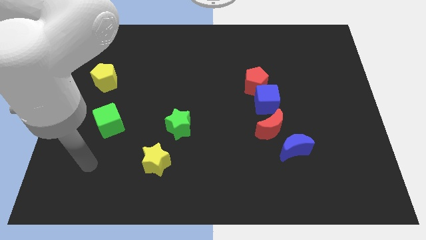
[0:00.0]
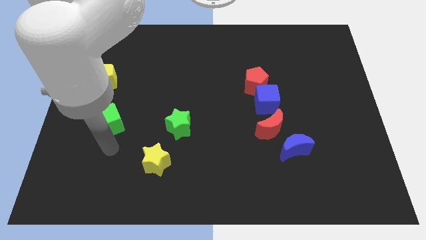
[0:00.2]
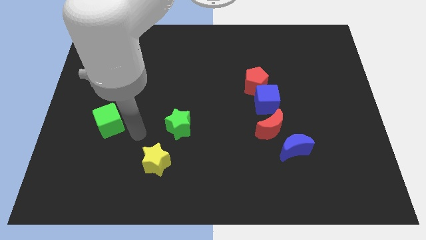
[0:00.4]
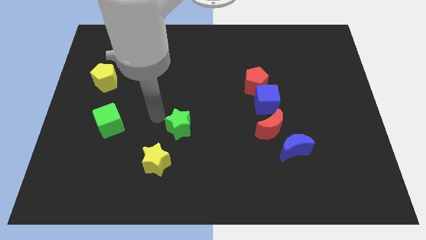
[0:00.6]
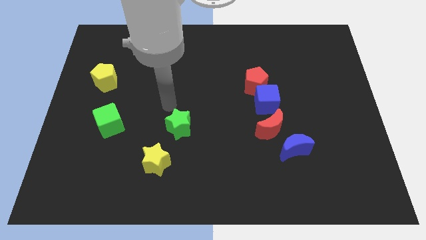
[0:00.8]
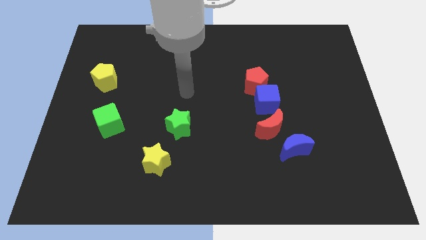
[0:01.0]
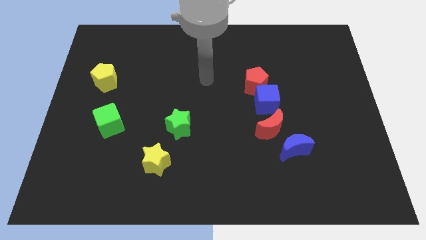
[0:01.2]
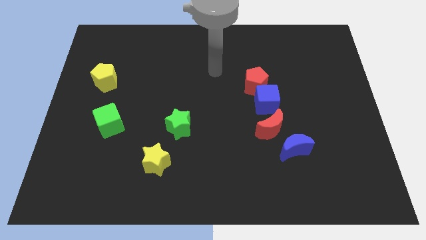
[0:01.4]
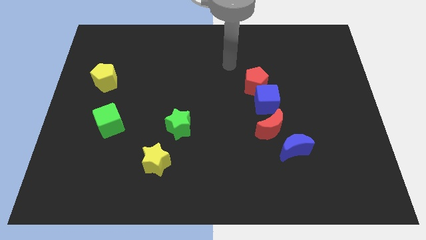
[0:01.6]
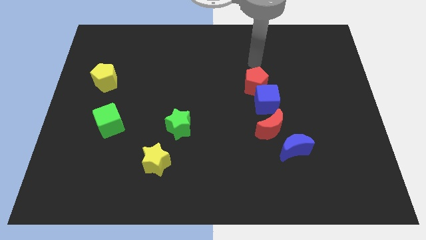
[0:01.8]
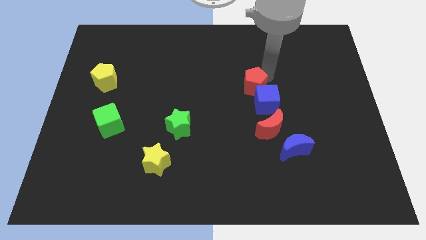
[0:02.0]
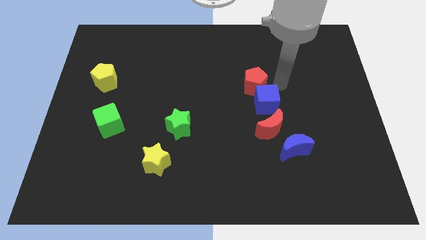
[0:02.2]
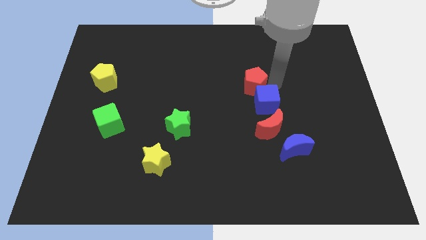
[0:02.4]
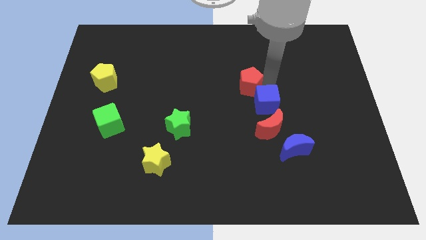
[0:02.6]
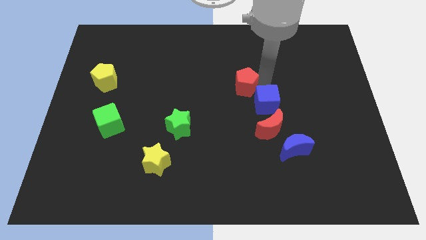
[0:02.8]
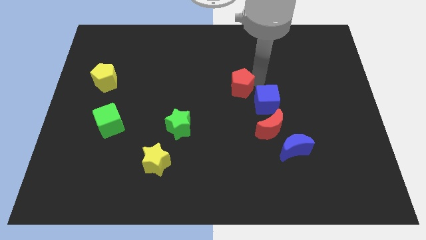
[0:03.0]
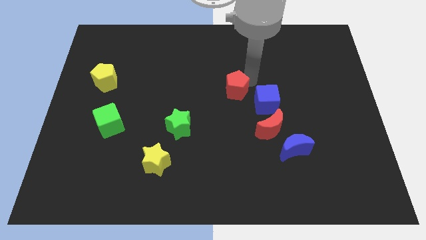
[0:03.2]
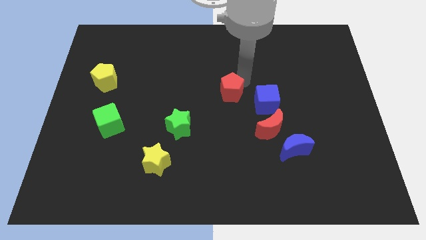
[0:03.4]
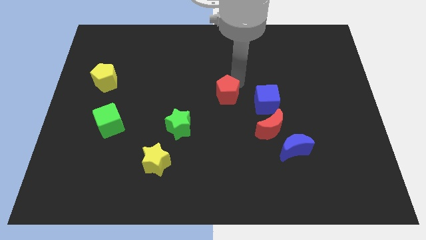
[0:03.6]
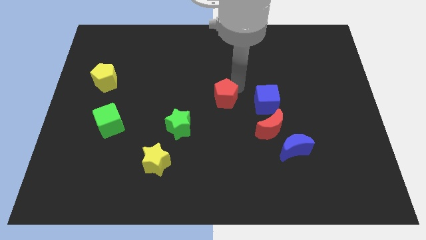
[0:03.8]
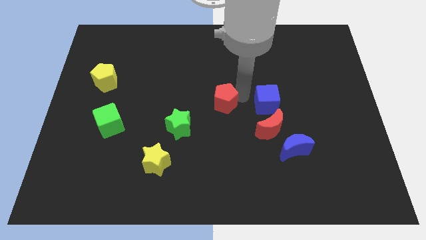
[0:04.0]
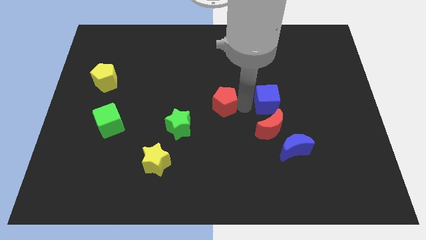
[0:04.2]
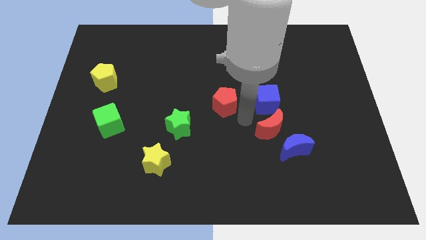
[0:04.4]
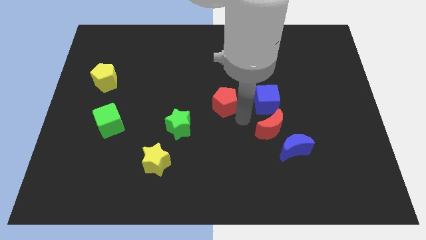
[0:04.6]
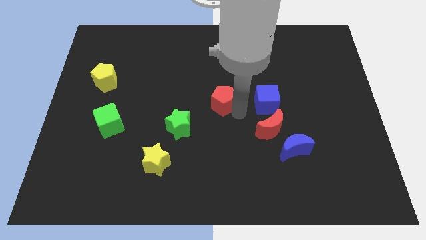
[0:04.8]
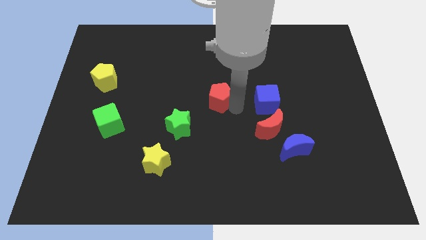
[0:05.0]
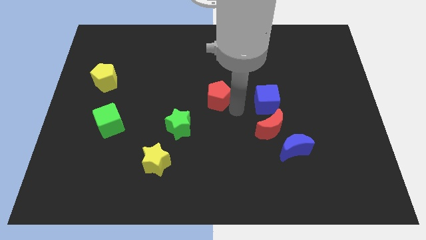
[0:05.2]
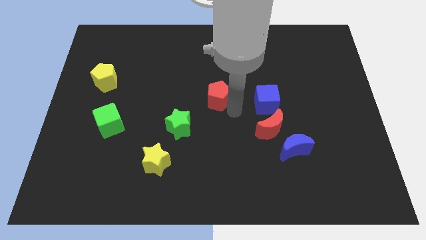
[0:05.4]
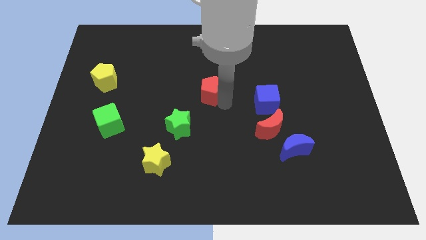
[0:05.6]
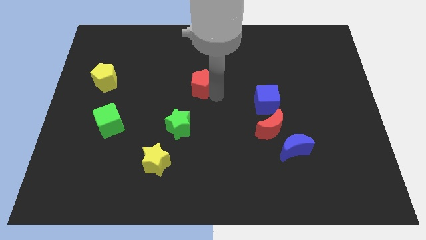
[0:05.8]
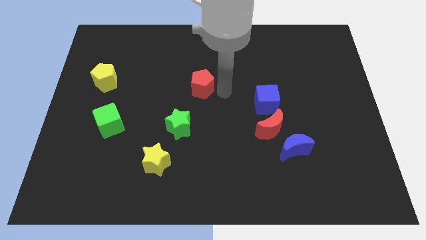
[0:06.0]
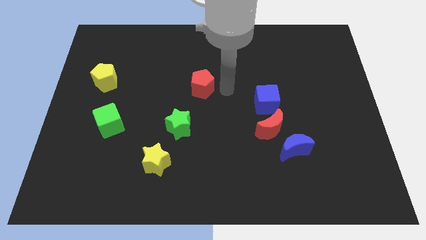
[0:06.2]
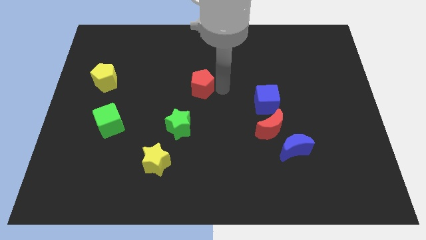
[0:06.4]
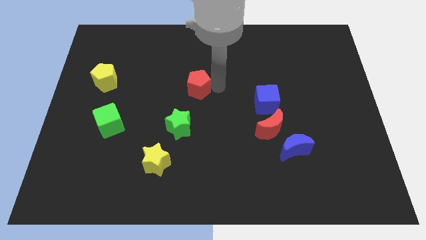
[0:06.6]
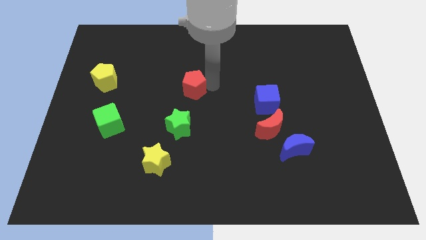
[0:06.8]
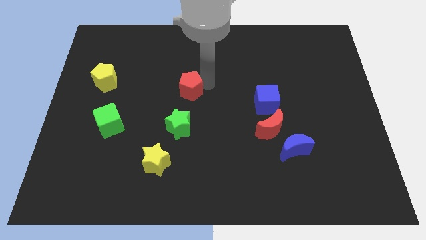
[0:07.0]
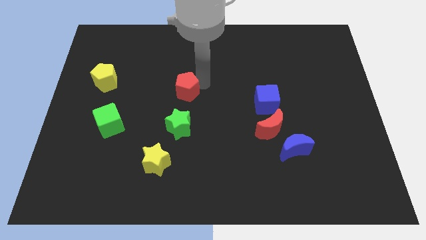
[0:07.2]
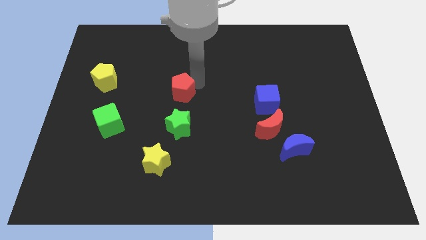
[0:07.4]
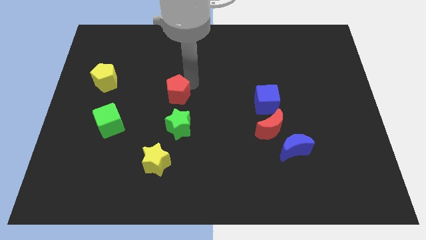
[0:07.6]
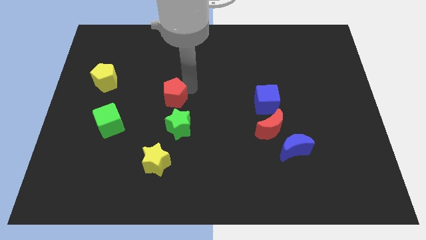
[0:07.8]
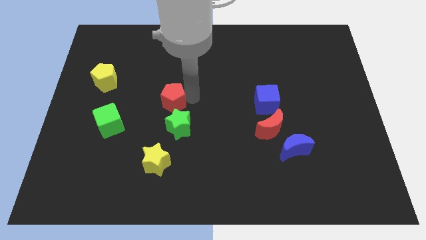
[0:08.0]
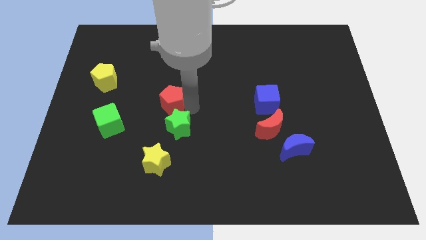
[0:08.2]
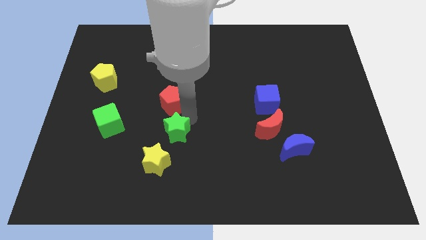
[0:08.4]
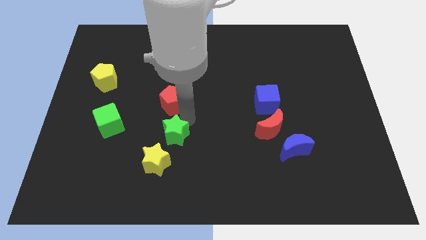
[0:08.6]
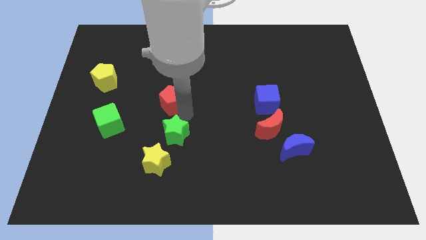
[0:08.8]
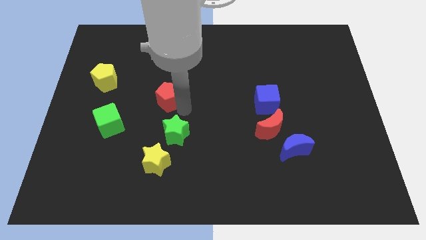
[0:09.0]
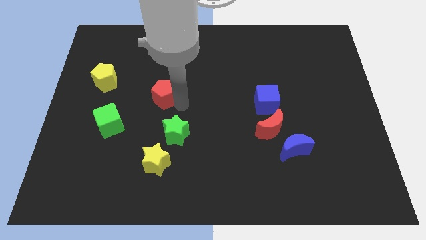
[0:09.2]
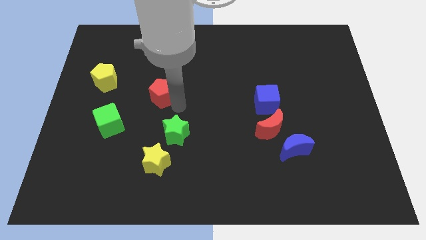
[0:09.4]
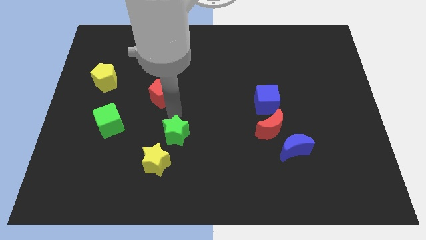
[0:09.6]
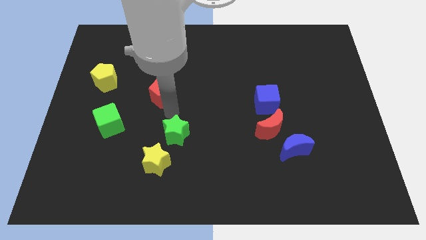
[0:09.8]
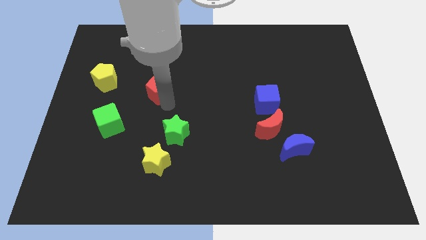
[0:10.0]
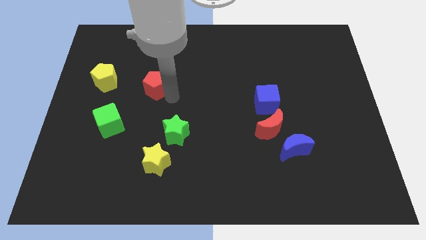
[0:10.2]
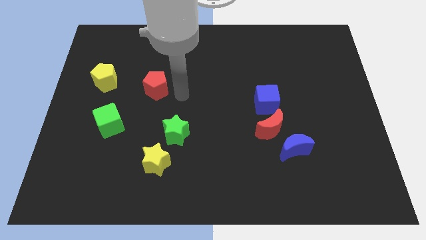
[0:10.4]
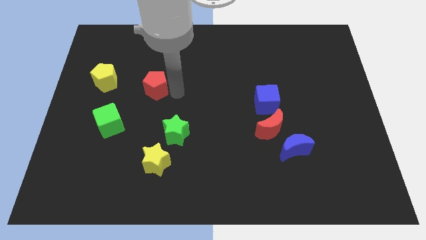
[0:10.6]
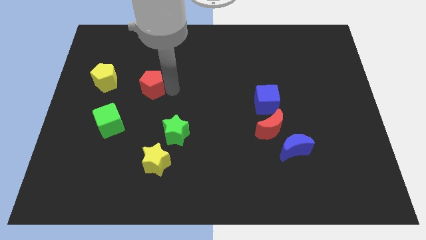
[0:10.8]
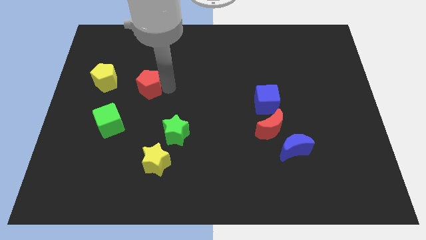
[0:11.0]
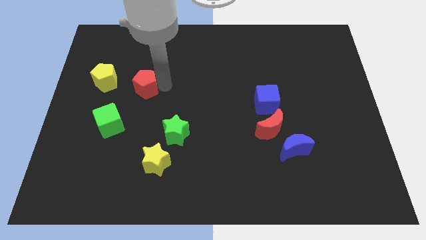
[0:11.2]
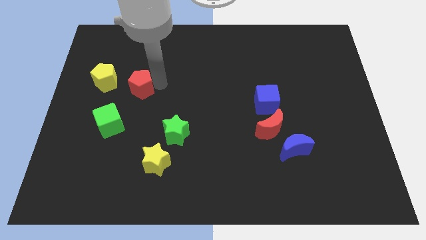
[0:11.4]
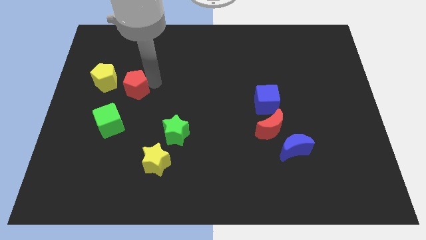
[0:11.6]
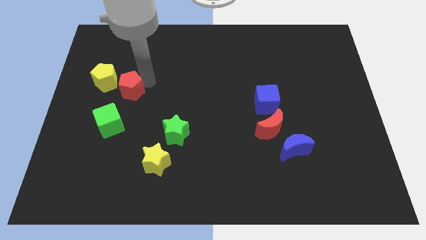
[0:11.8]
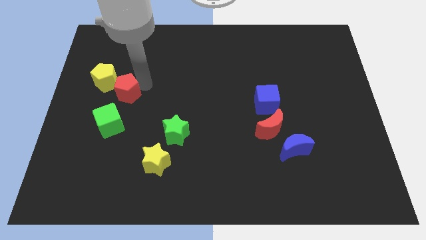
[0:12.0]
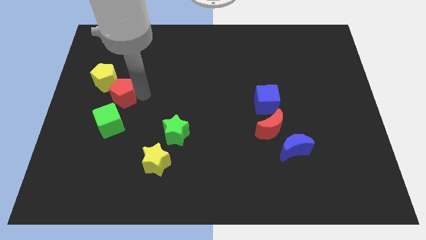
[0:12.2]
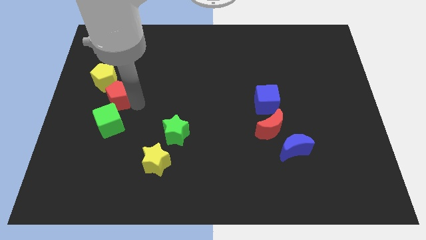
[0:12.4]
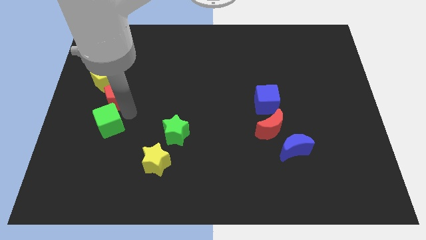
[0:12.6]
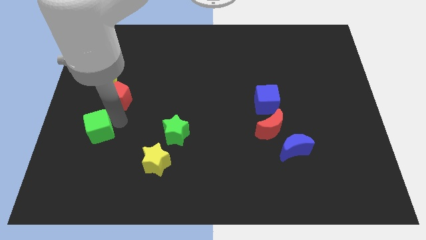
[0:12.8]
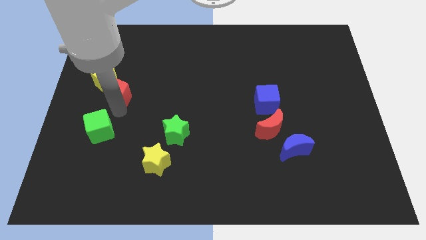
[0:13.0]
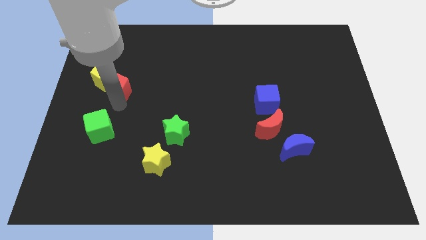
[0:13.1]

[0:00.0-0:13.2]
push the red pentagon close to the yellow pentagon
